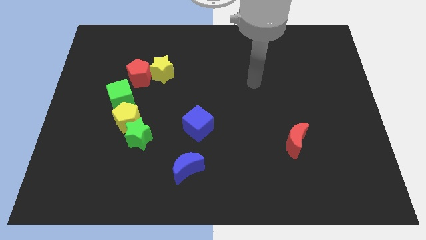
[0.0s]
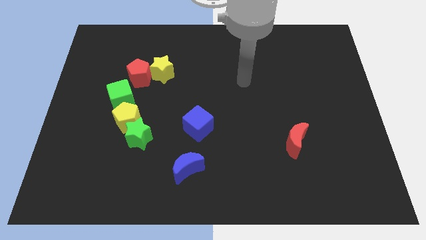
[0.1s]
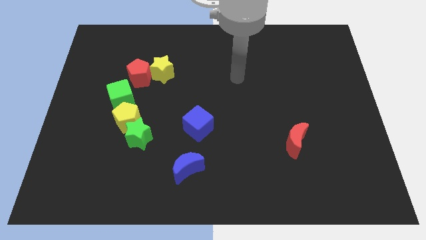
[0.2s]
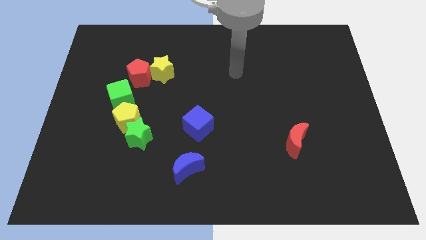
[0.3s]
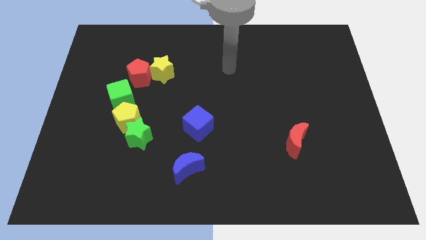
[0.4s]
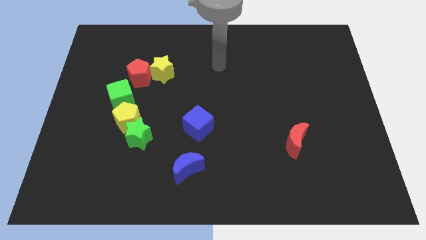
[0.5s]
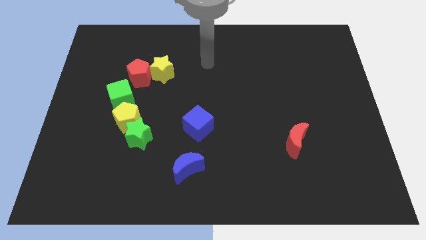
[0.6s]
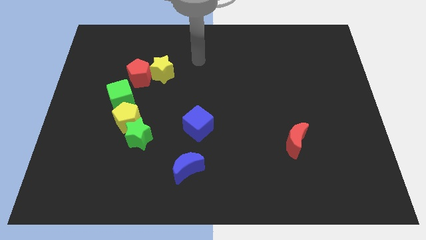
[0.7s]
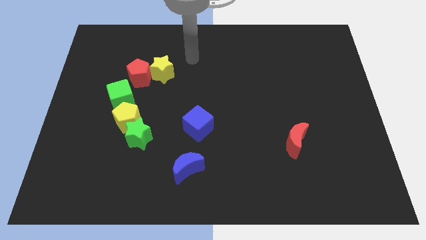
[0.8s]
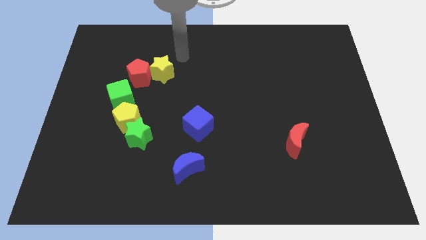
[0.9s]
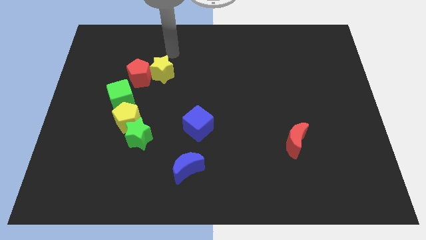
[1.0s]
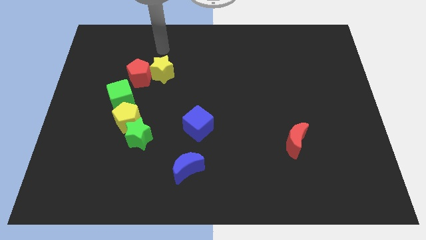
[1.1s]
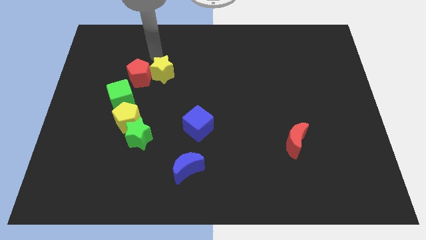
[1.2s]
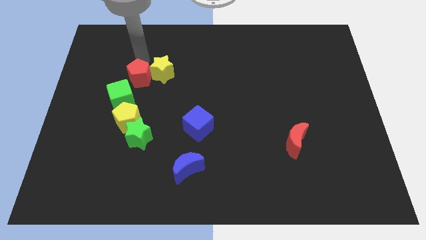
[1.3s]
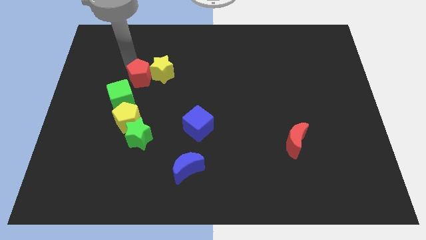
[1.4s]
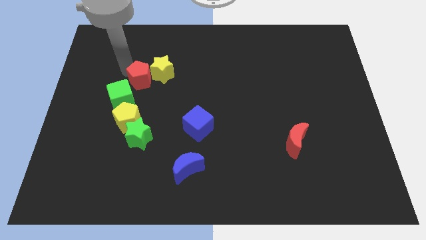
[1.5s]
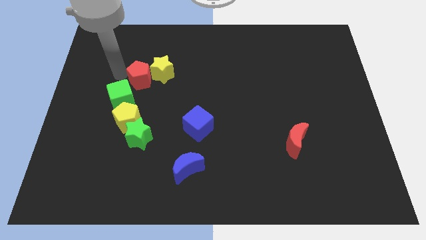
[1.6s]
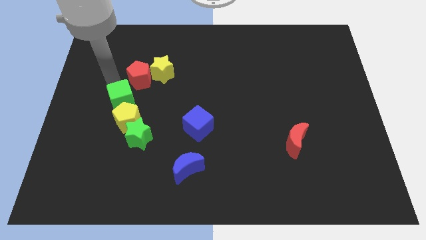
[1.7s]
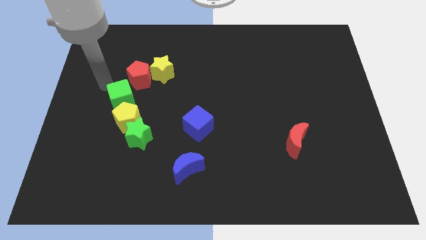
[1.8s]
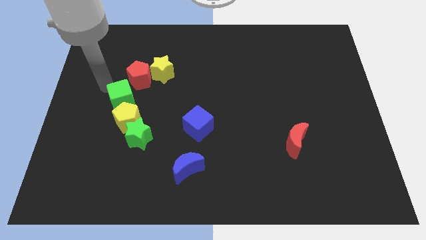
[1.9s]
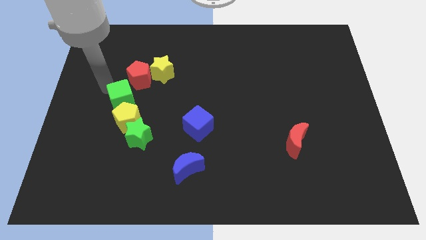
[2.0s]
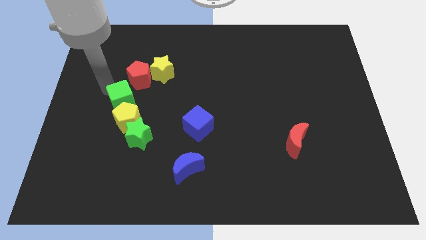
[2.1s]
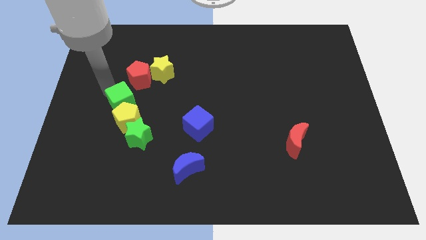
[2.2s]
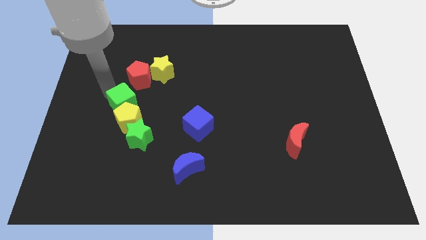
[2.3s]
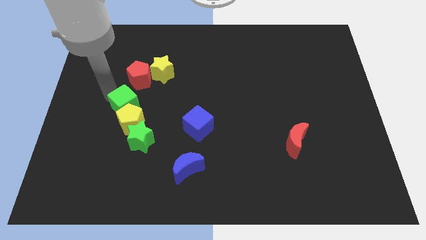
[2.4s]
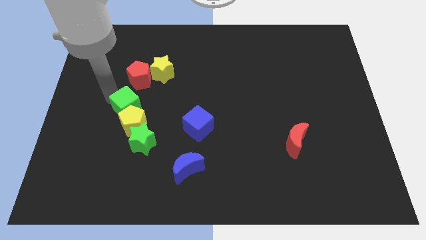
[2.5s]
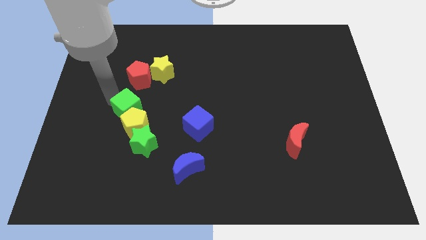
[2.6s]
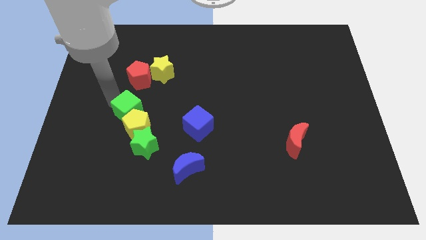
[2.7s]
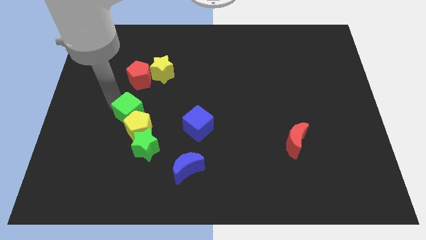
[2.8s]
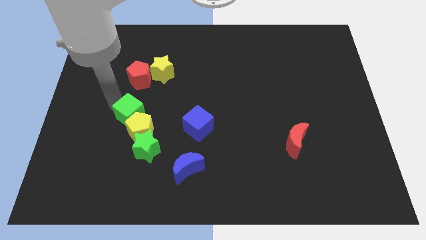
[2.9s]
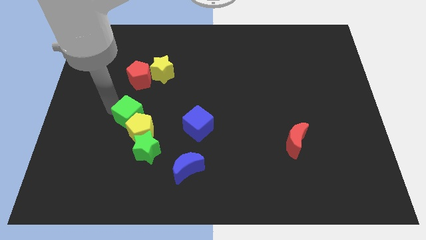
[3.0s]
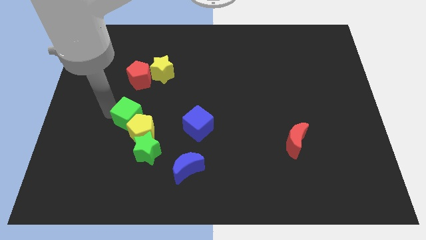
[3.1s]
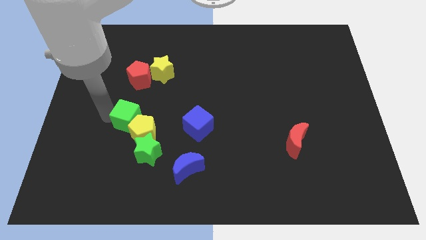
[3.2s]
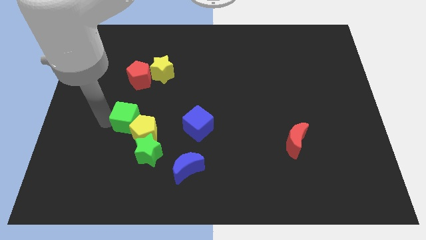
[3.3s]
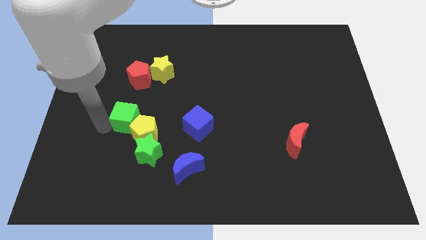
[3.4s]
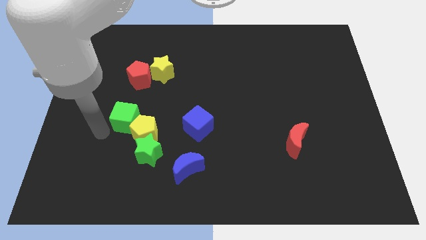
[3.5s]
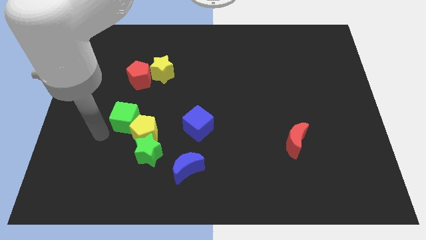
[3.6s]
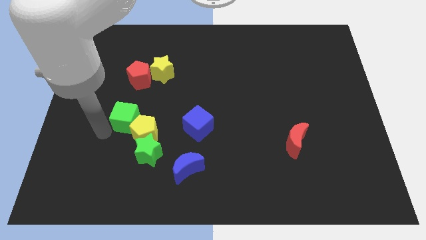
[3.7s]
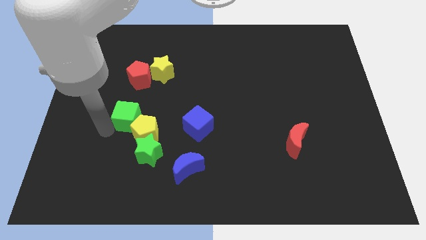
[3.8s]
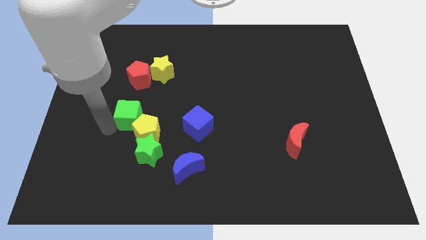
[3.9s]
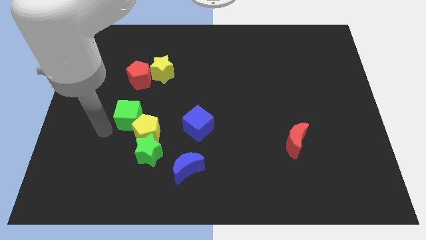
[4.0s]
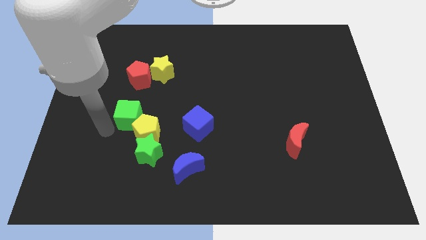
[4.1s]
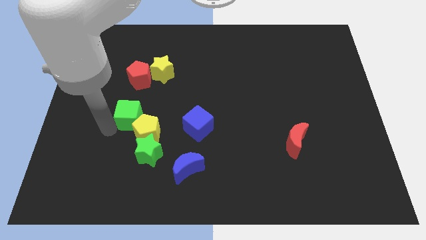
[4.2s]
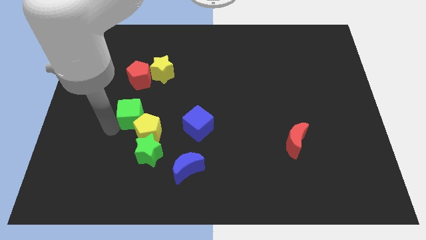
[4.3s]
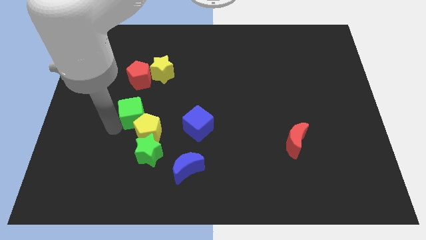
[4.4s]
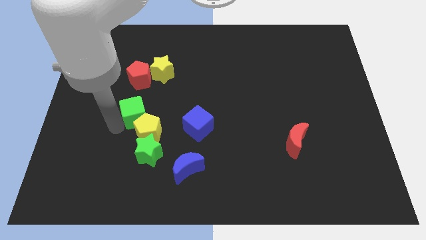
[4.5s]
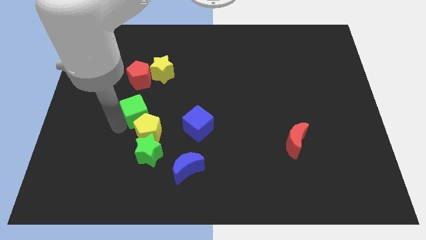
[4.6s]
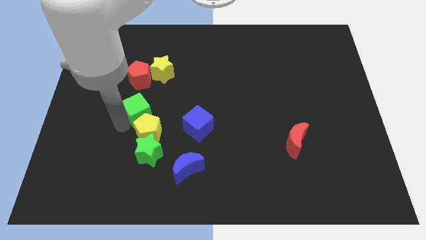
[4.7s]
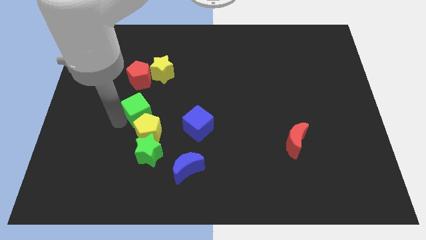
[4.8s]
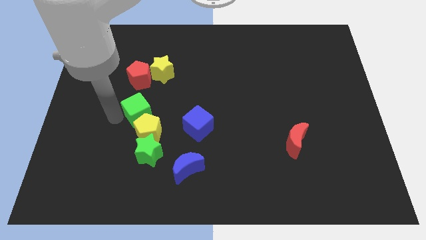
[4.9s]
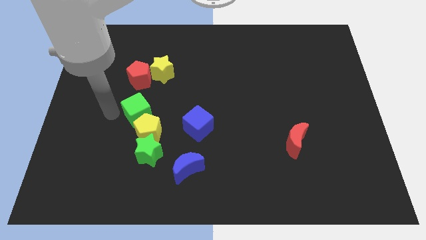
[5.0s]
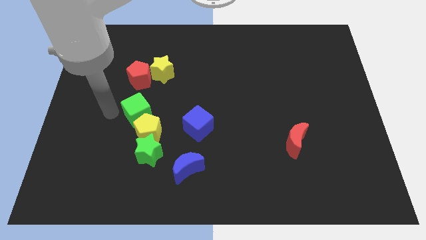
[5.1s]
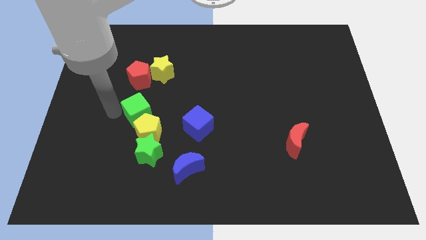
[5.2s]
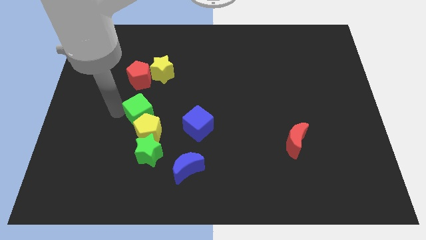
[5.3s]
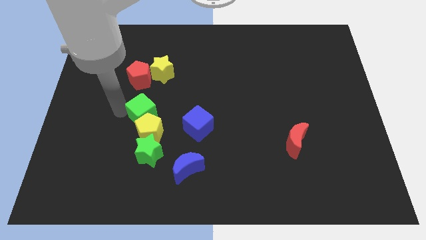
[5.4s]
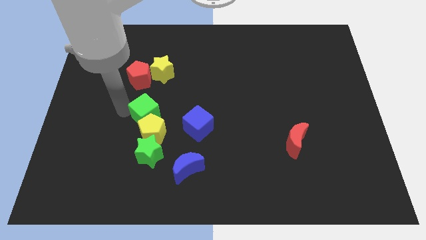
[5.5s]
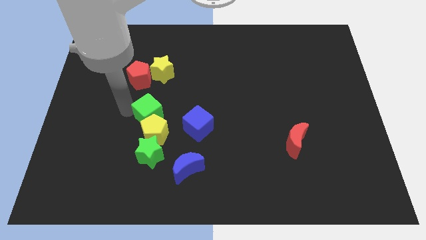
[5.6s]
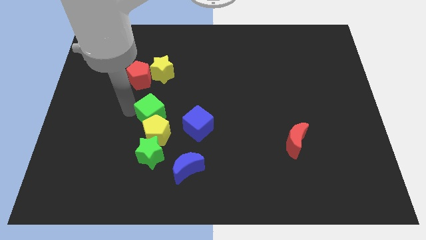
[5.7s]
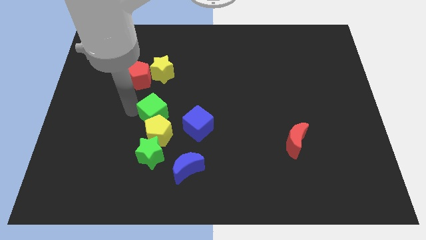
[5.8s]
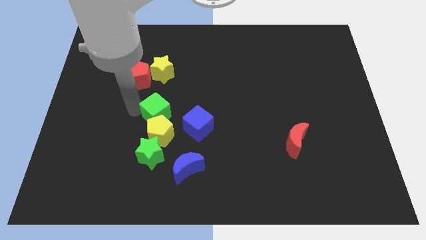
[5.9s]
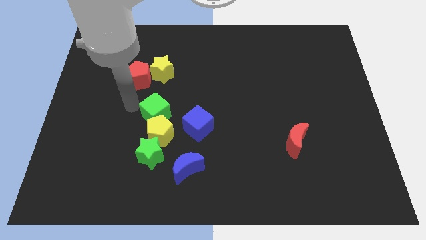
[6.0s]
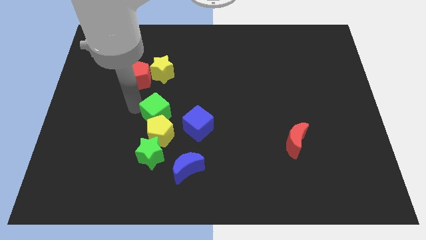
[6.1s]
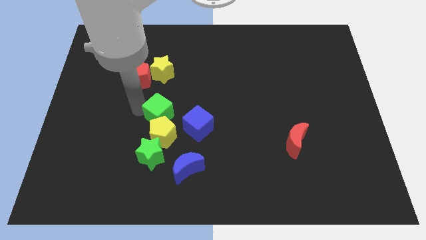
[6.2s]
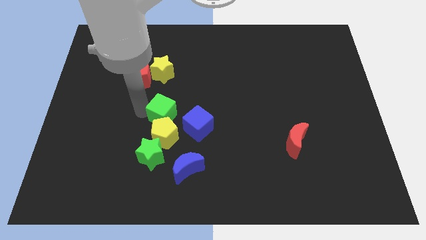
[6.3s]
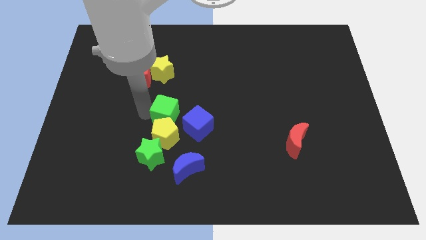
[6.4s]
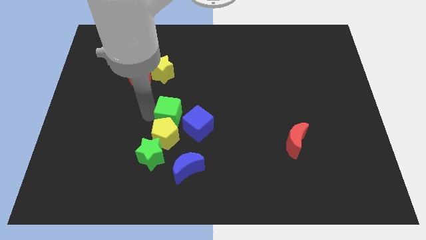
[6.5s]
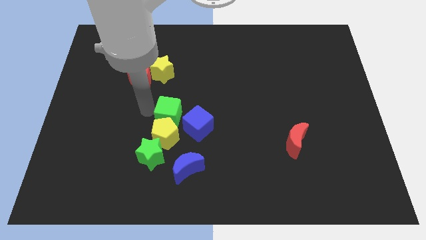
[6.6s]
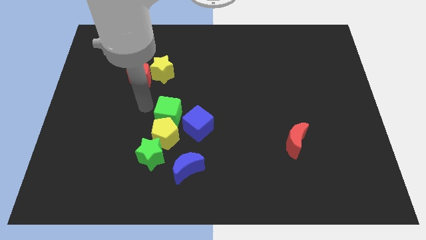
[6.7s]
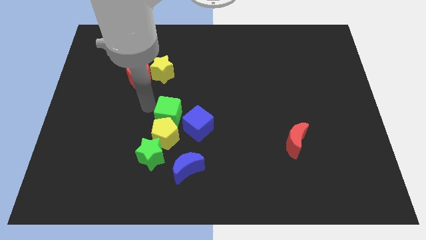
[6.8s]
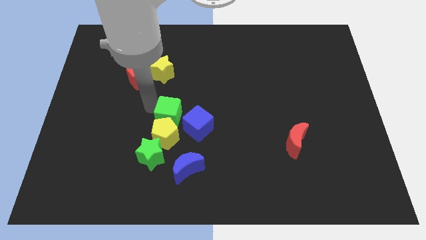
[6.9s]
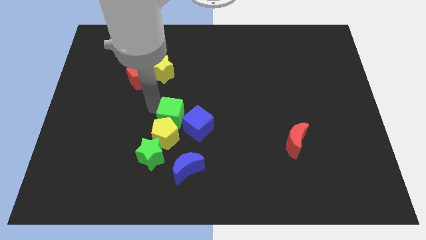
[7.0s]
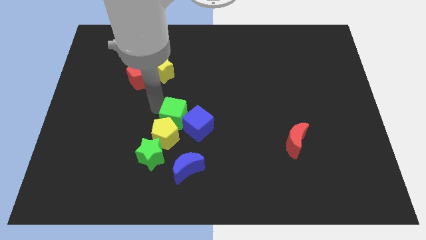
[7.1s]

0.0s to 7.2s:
slide the green cube to the blue cube

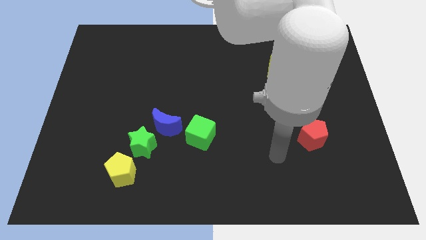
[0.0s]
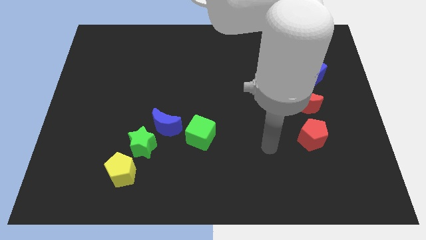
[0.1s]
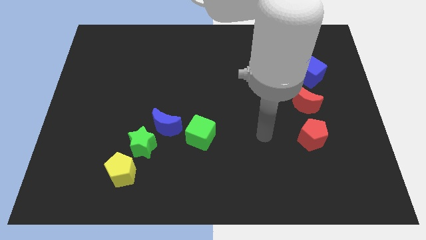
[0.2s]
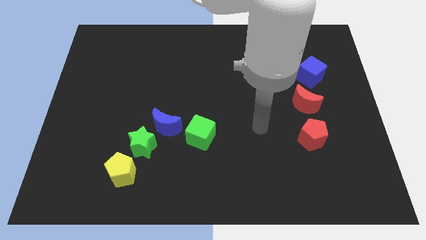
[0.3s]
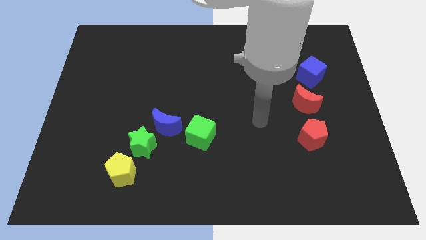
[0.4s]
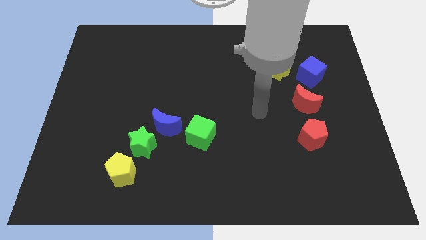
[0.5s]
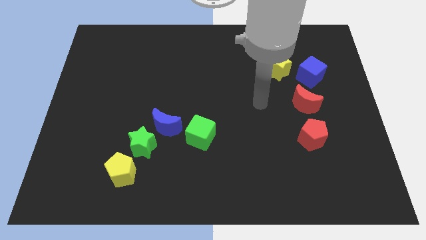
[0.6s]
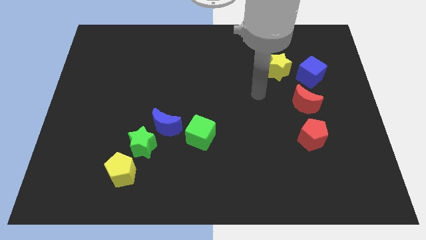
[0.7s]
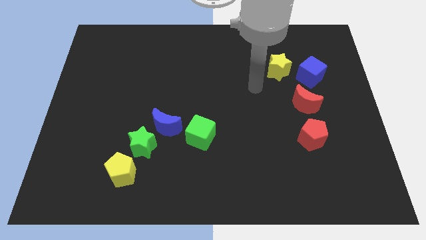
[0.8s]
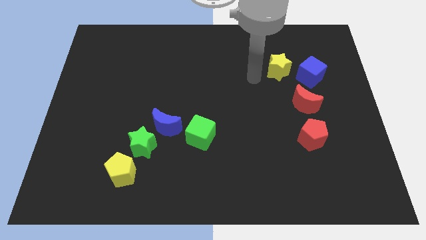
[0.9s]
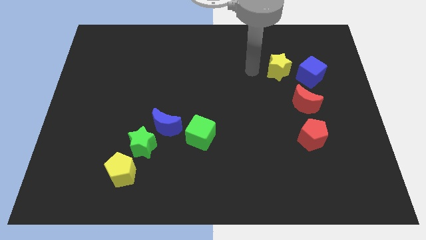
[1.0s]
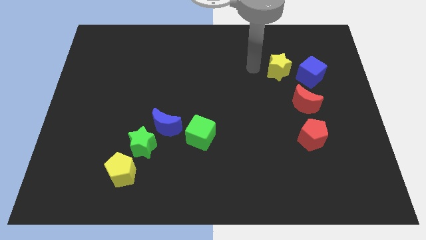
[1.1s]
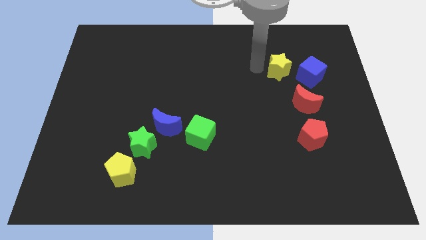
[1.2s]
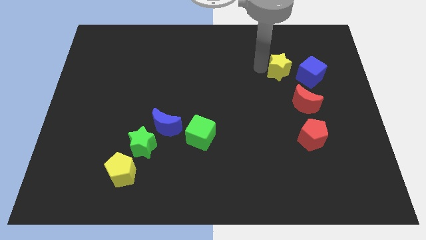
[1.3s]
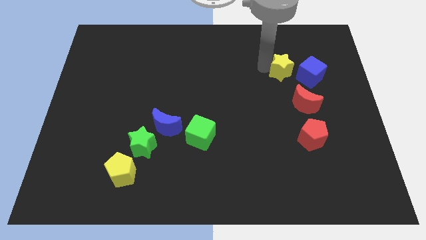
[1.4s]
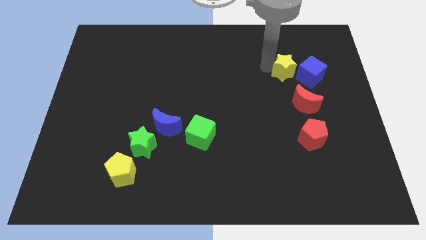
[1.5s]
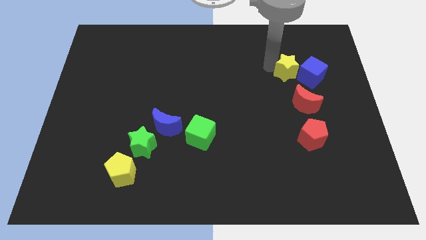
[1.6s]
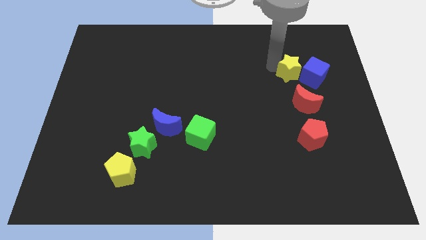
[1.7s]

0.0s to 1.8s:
slide the yellow star close to the blue cube
